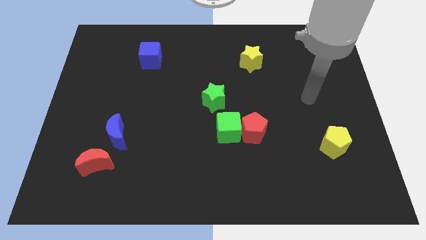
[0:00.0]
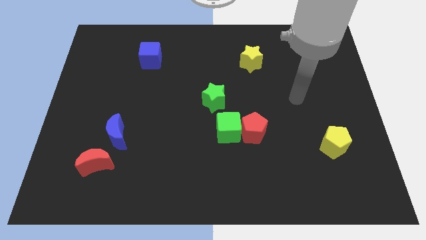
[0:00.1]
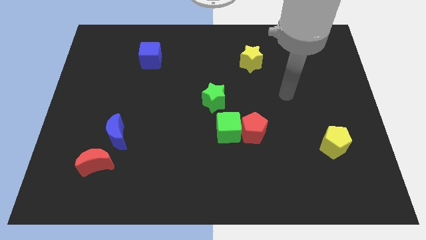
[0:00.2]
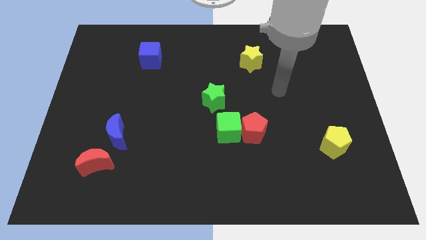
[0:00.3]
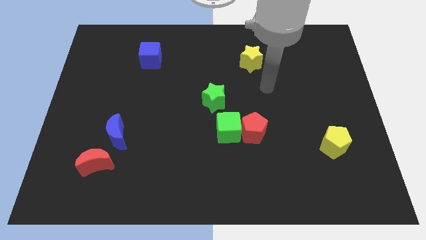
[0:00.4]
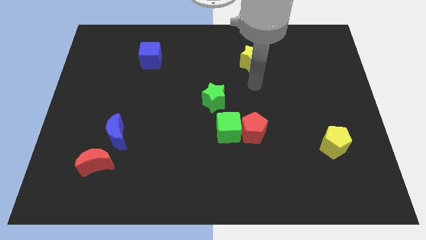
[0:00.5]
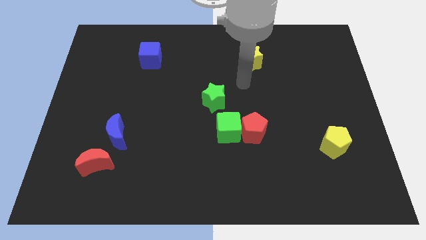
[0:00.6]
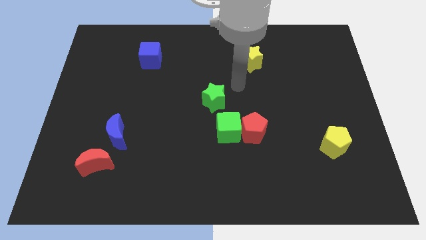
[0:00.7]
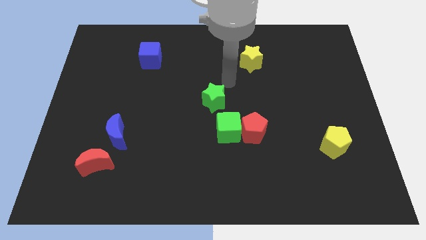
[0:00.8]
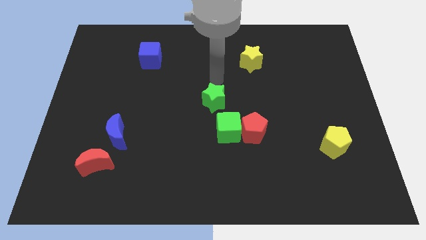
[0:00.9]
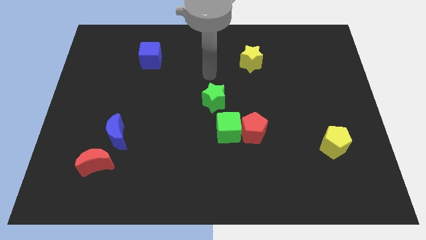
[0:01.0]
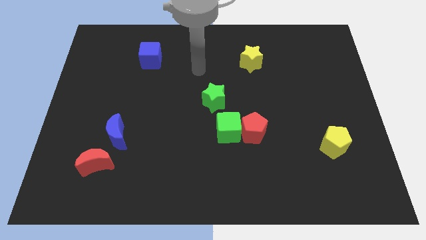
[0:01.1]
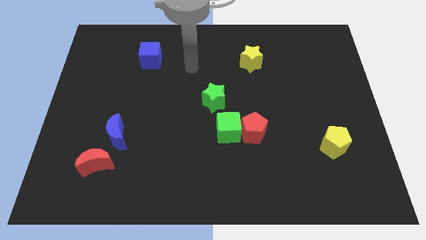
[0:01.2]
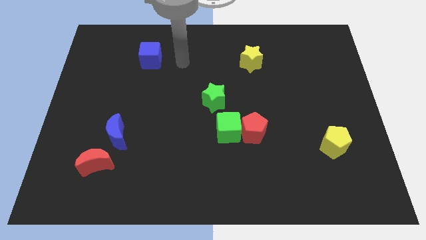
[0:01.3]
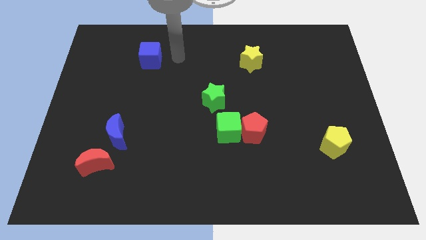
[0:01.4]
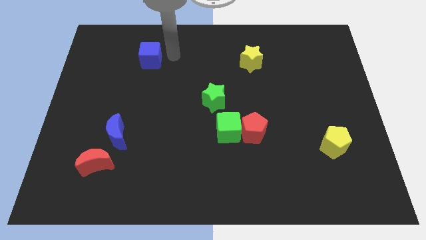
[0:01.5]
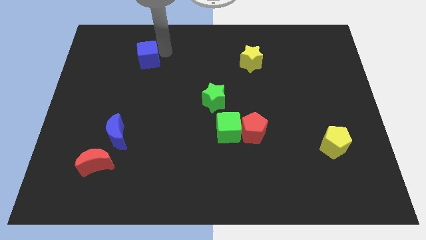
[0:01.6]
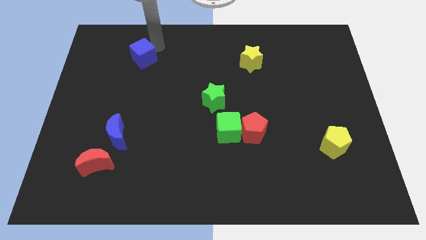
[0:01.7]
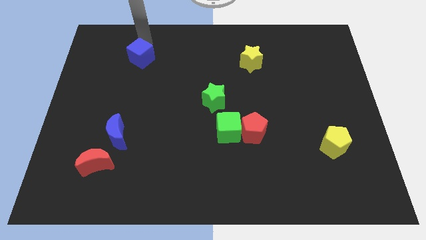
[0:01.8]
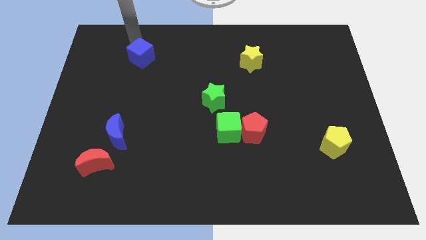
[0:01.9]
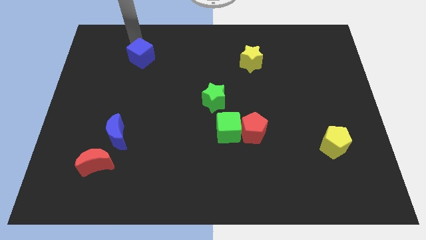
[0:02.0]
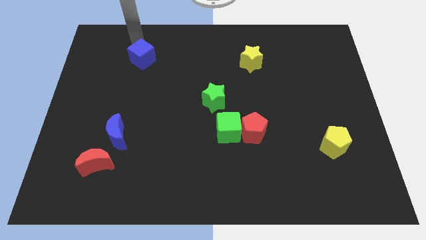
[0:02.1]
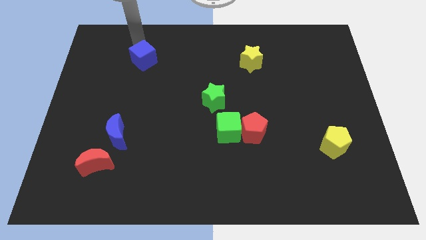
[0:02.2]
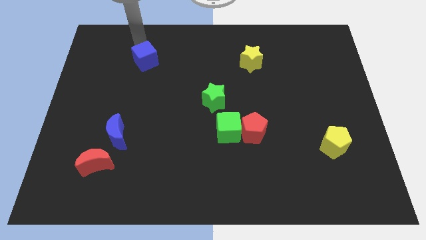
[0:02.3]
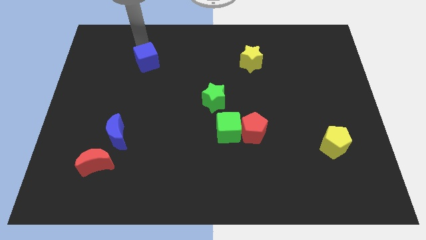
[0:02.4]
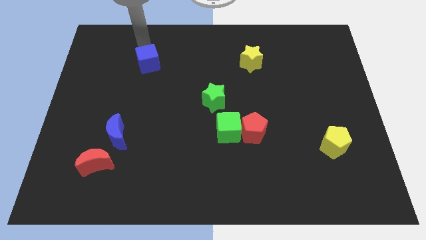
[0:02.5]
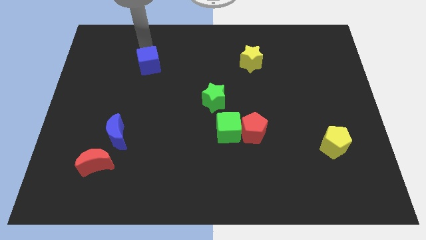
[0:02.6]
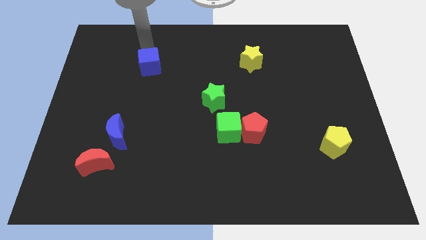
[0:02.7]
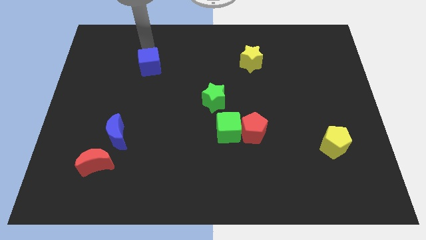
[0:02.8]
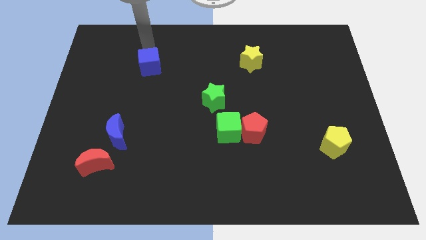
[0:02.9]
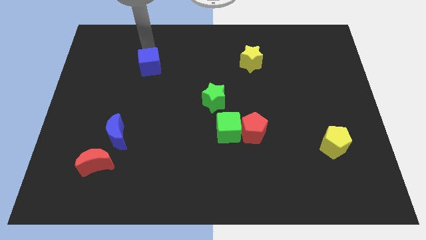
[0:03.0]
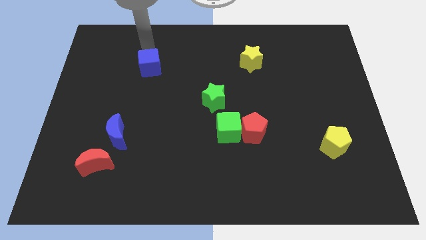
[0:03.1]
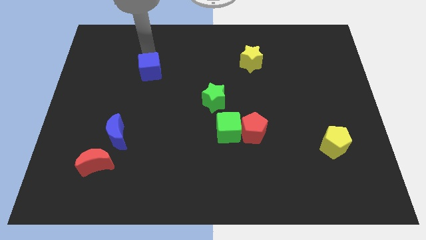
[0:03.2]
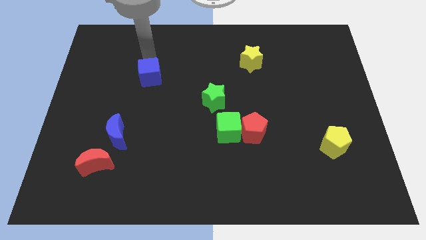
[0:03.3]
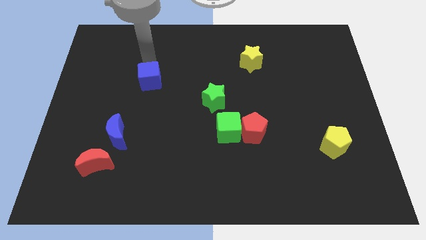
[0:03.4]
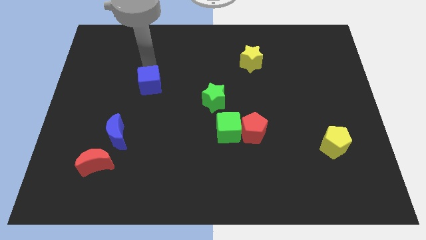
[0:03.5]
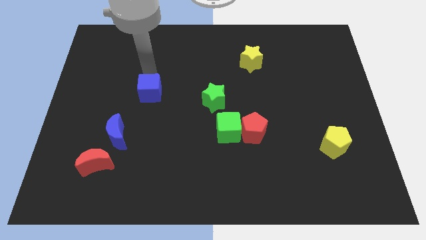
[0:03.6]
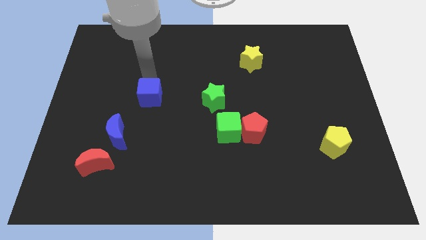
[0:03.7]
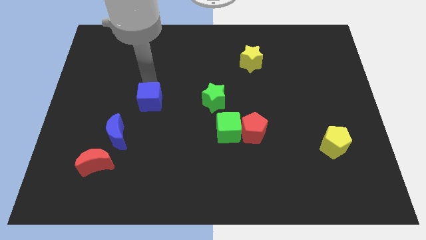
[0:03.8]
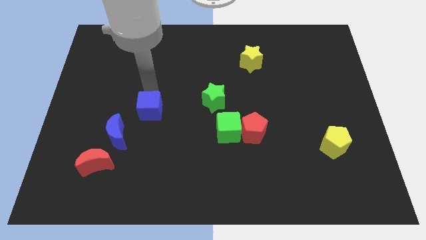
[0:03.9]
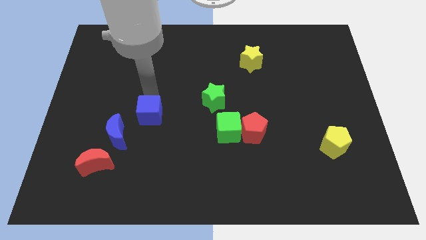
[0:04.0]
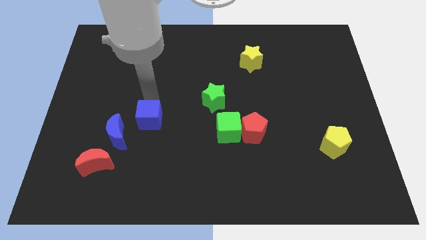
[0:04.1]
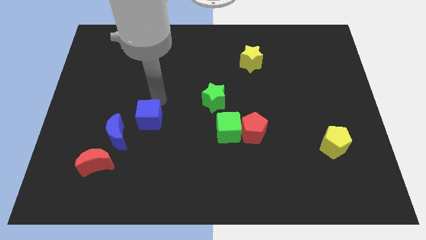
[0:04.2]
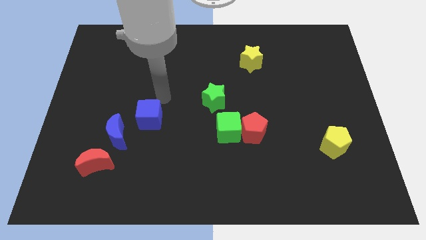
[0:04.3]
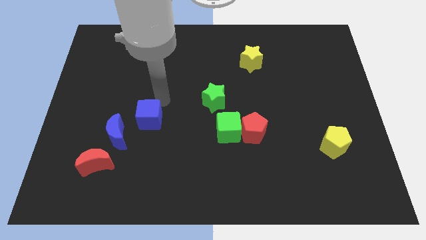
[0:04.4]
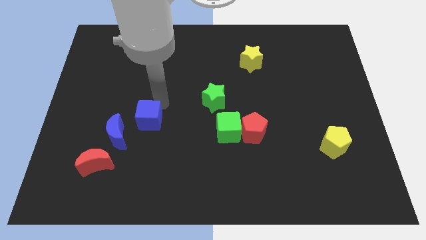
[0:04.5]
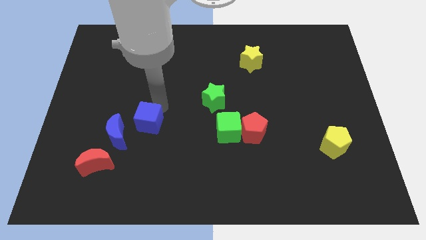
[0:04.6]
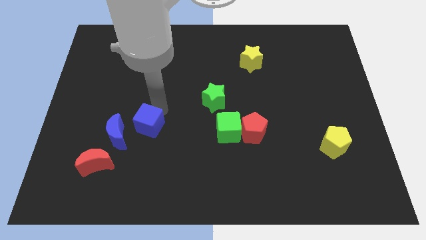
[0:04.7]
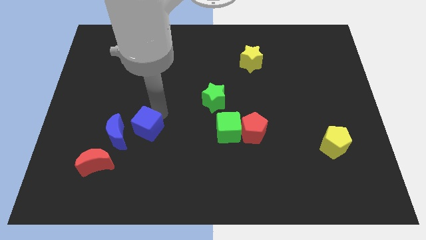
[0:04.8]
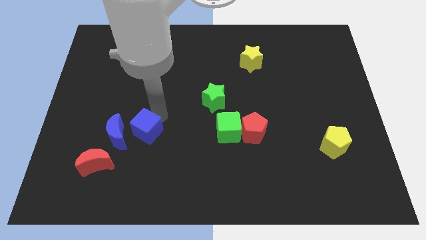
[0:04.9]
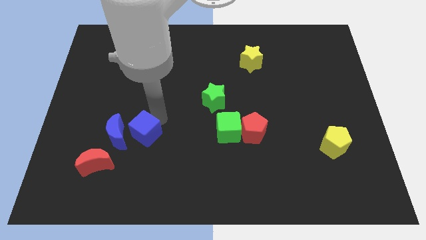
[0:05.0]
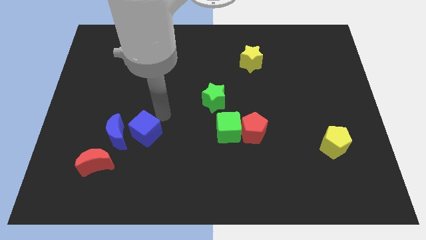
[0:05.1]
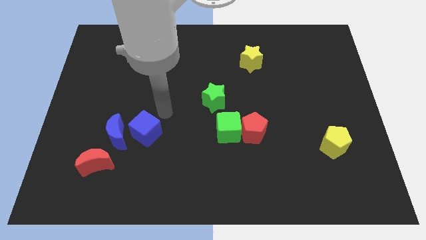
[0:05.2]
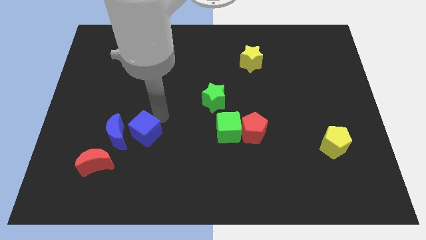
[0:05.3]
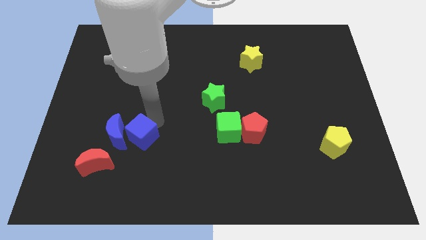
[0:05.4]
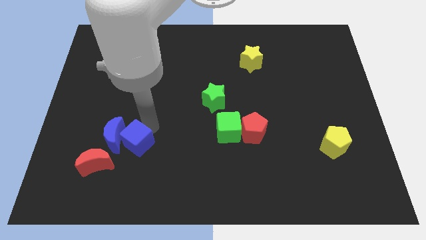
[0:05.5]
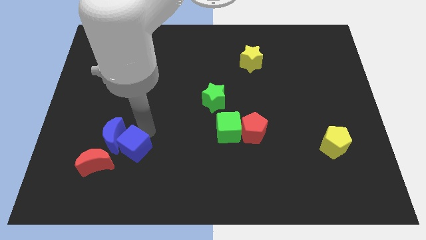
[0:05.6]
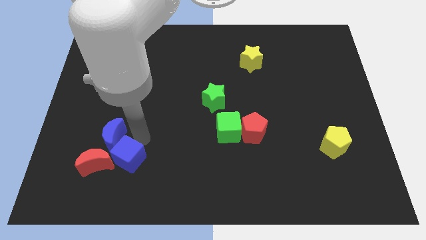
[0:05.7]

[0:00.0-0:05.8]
push the blue cube to the bottom of the blue moon

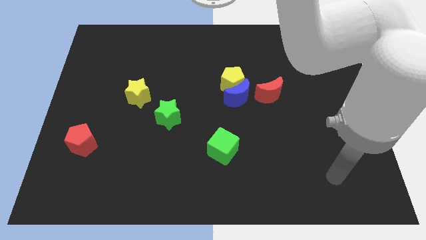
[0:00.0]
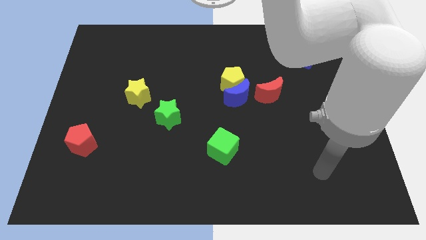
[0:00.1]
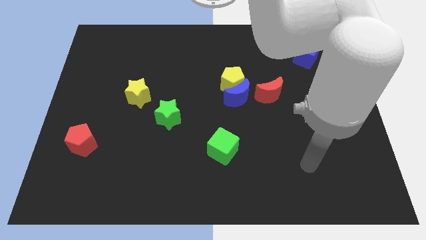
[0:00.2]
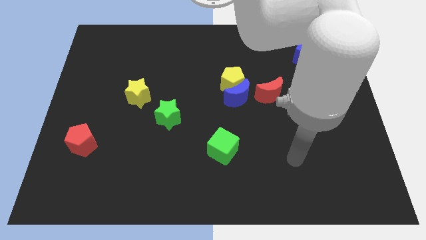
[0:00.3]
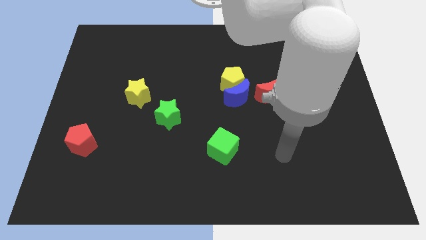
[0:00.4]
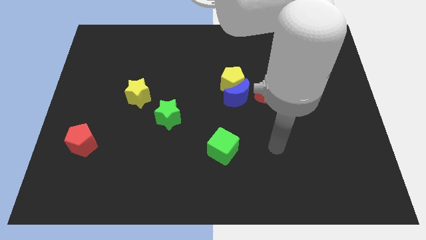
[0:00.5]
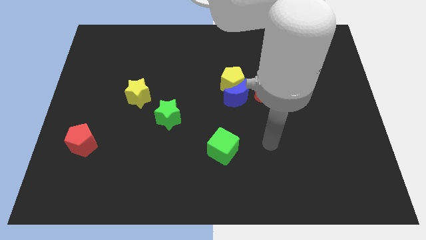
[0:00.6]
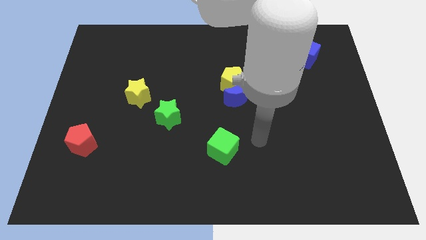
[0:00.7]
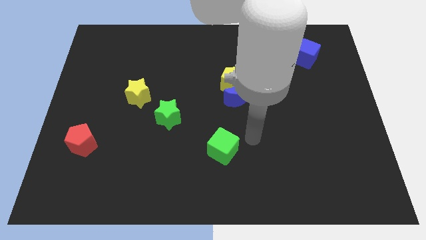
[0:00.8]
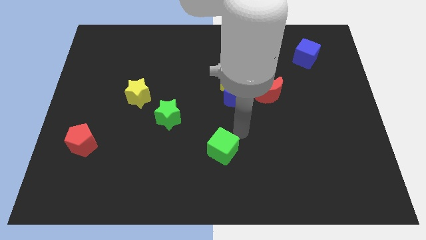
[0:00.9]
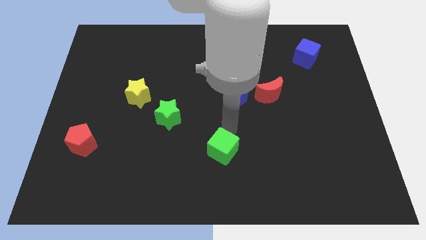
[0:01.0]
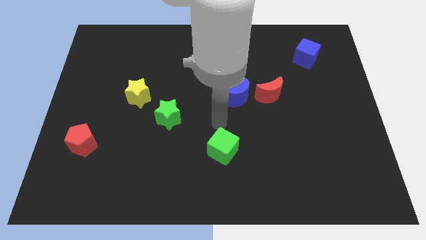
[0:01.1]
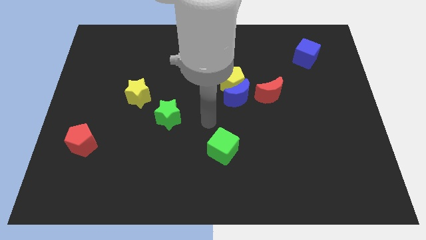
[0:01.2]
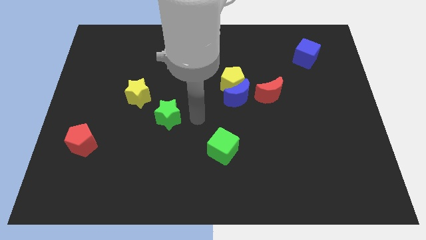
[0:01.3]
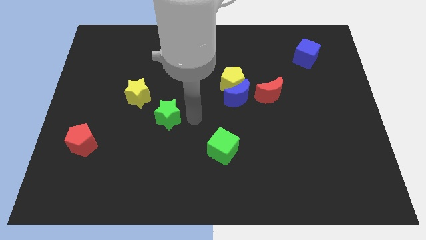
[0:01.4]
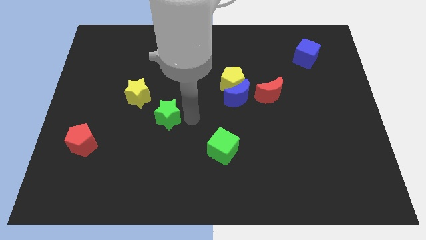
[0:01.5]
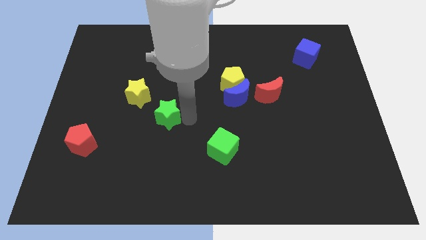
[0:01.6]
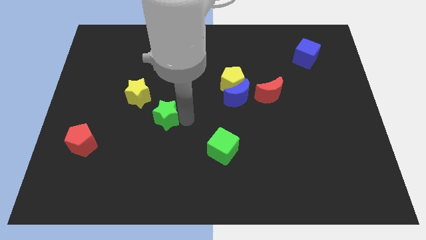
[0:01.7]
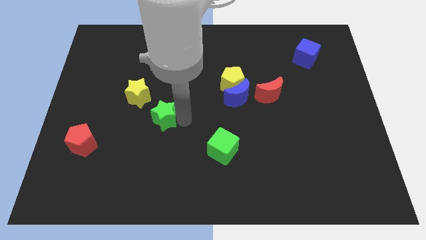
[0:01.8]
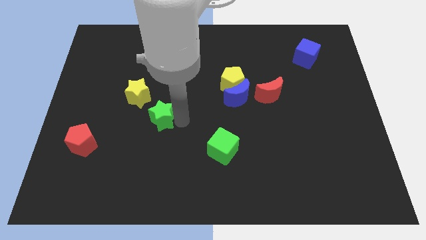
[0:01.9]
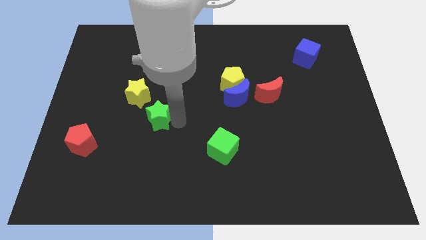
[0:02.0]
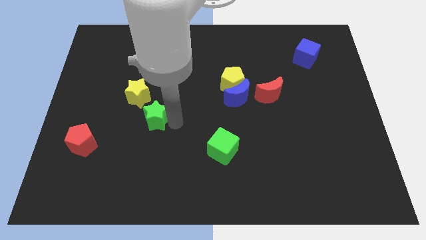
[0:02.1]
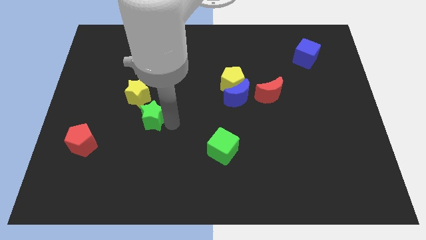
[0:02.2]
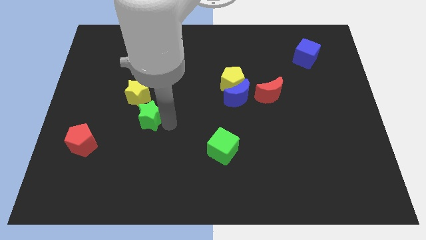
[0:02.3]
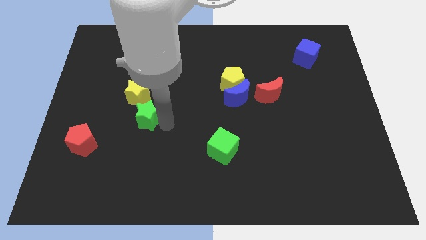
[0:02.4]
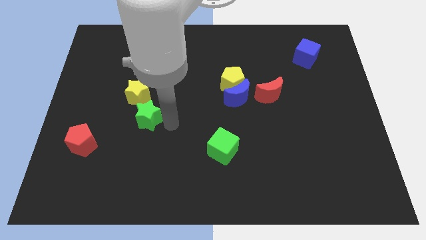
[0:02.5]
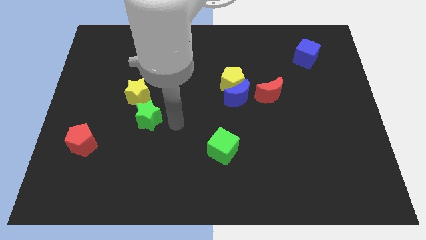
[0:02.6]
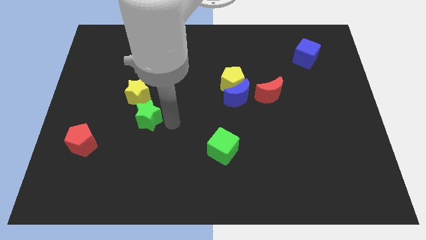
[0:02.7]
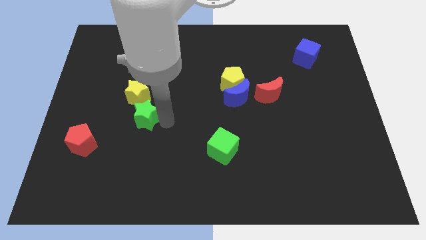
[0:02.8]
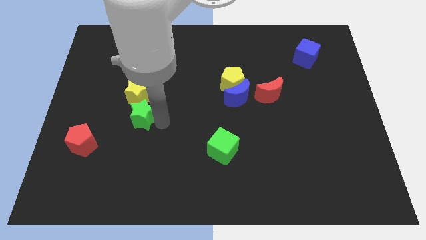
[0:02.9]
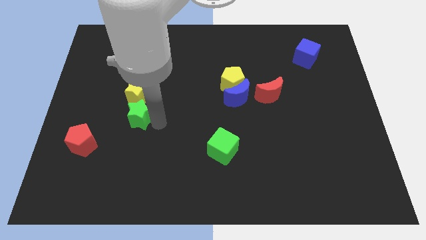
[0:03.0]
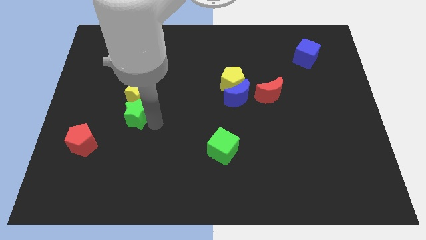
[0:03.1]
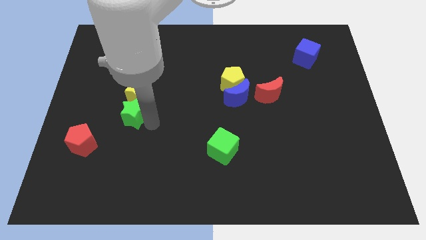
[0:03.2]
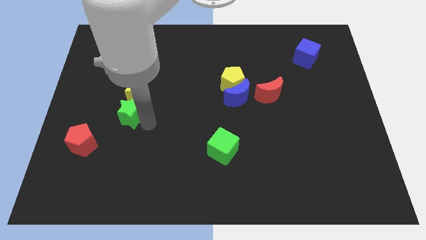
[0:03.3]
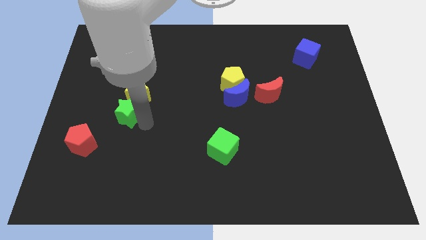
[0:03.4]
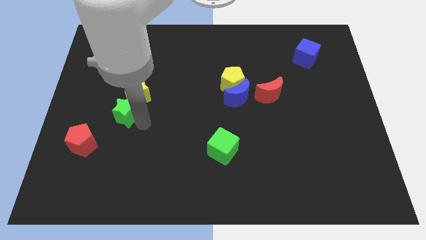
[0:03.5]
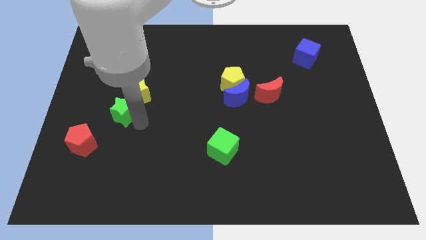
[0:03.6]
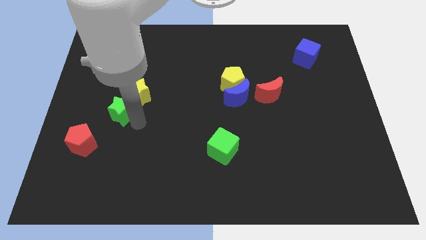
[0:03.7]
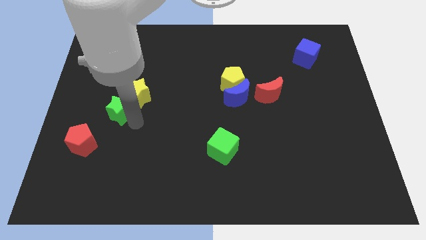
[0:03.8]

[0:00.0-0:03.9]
put the green star left of the yellow star
